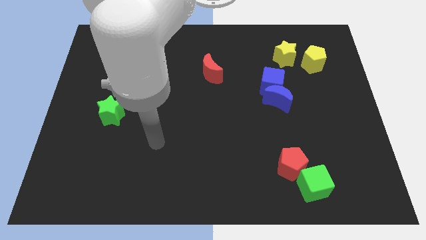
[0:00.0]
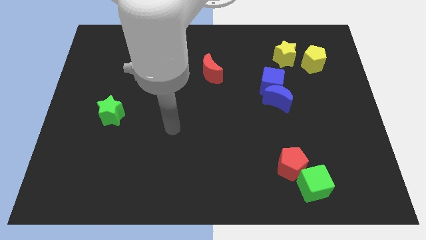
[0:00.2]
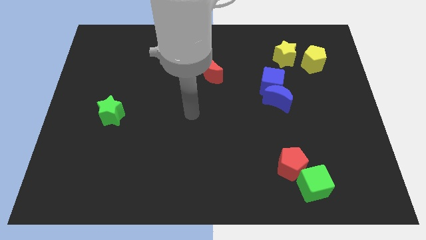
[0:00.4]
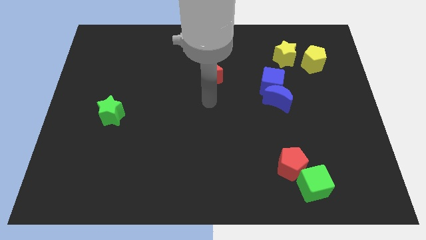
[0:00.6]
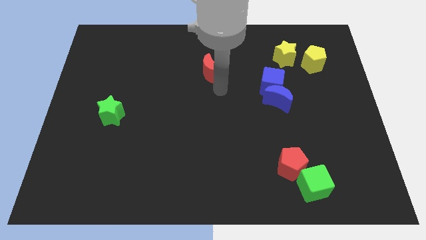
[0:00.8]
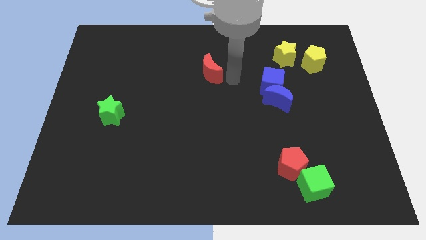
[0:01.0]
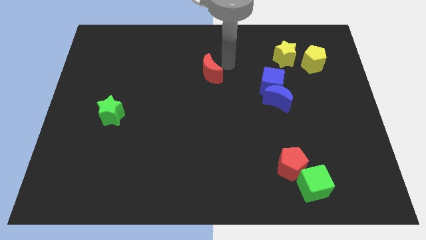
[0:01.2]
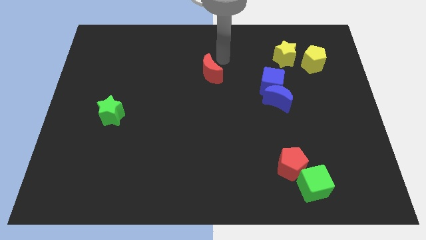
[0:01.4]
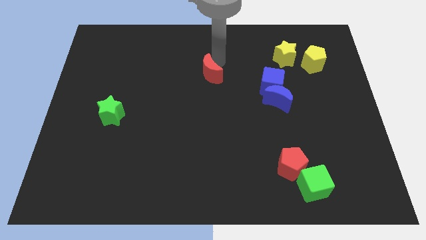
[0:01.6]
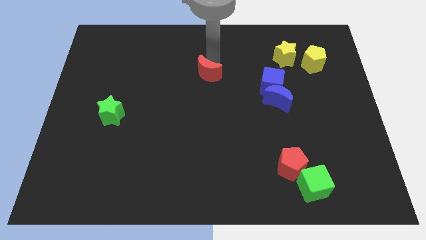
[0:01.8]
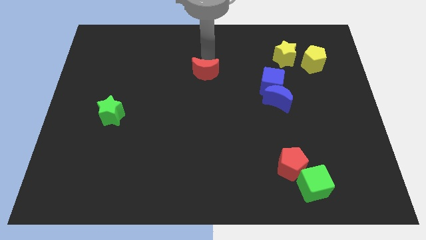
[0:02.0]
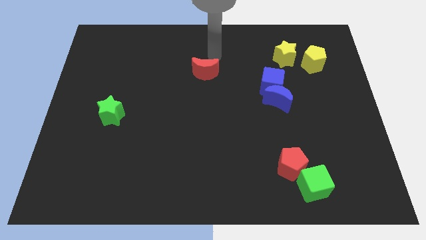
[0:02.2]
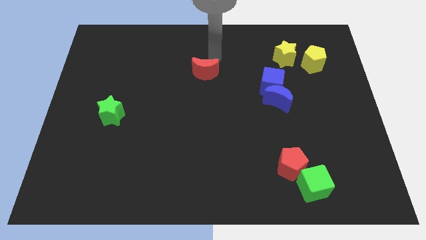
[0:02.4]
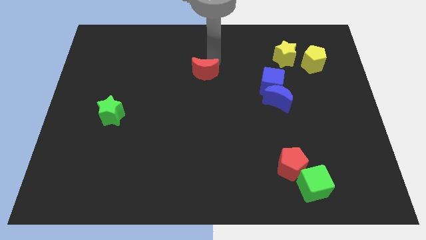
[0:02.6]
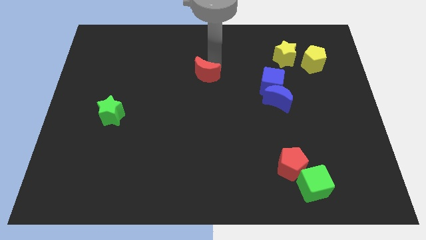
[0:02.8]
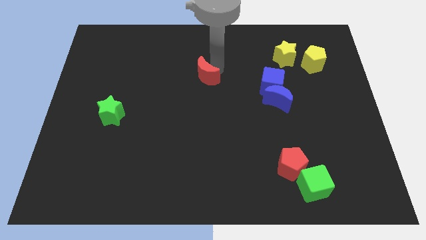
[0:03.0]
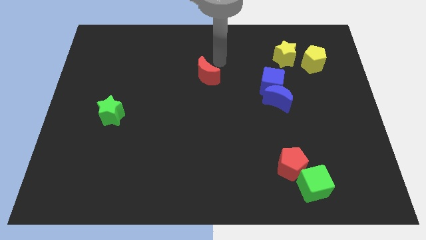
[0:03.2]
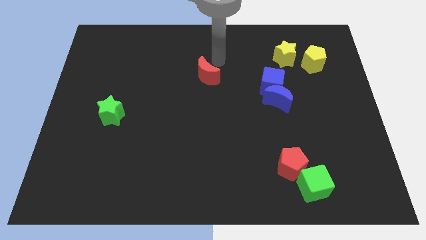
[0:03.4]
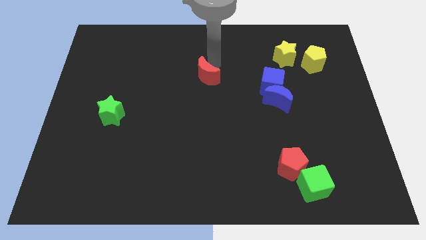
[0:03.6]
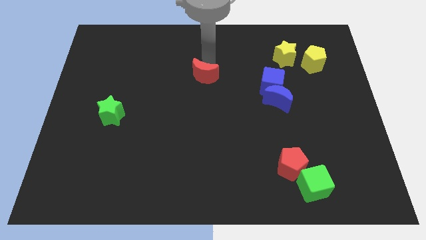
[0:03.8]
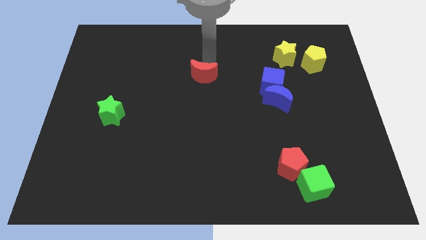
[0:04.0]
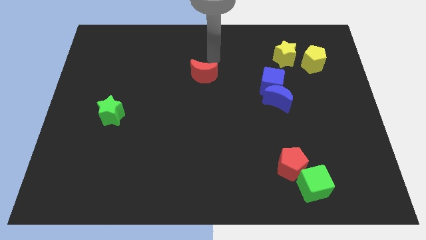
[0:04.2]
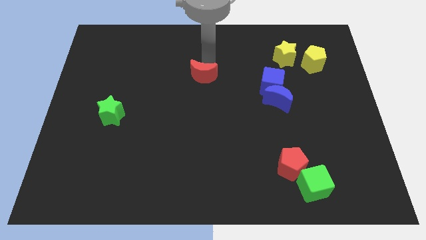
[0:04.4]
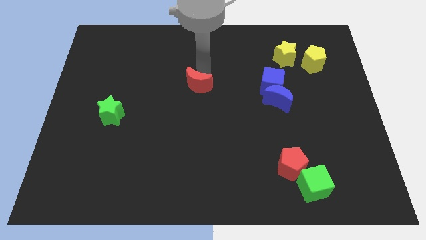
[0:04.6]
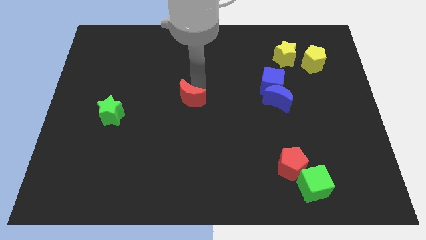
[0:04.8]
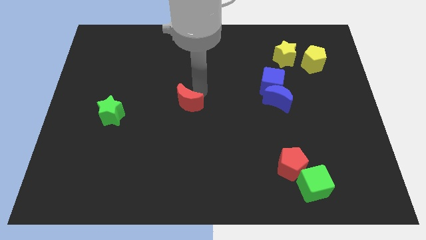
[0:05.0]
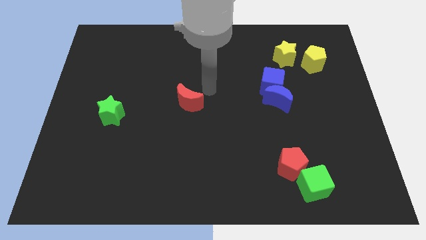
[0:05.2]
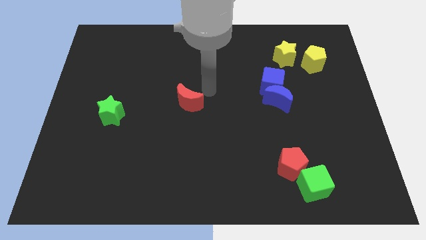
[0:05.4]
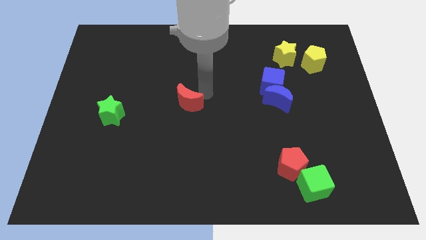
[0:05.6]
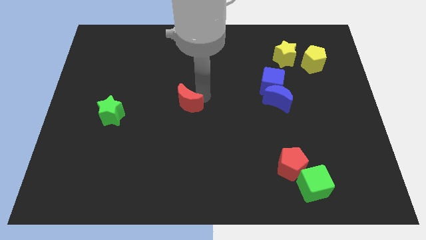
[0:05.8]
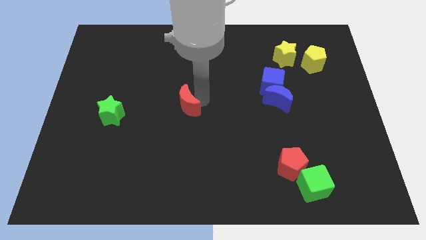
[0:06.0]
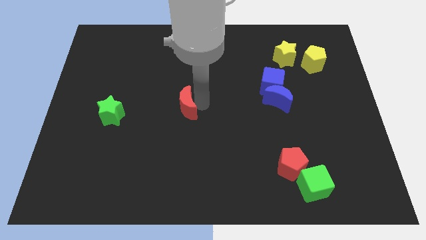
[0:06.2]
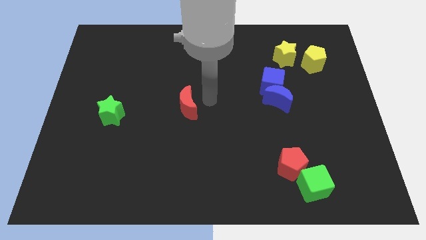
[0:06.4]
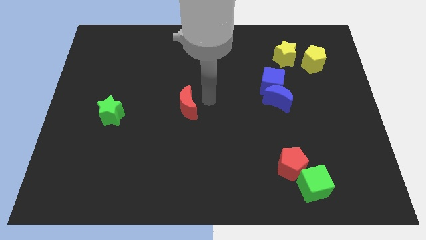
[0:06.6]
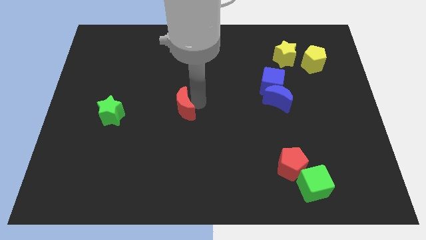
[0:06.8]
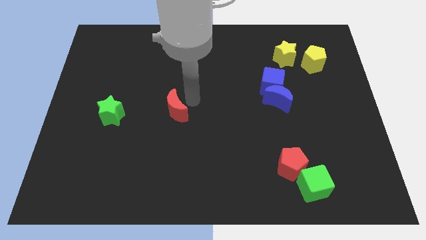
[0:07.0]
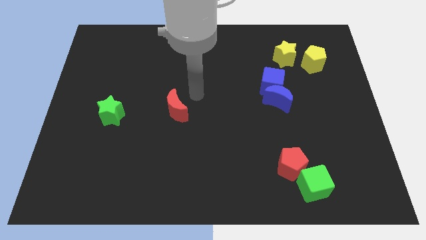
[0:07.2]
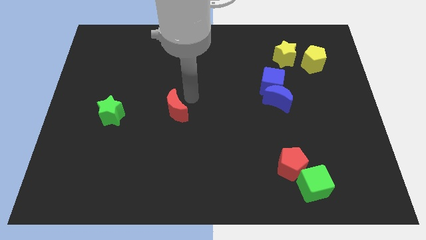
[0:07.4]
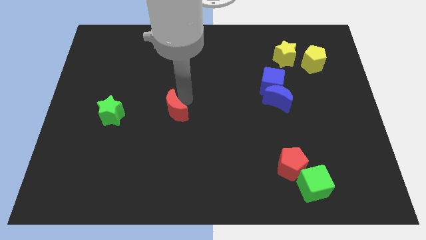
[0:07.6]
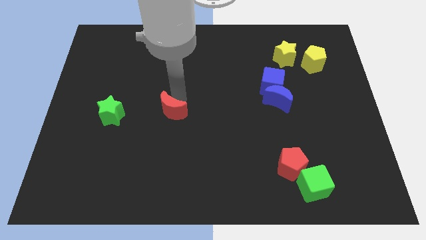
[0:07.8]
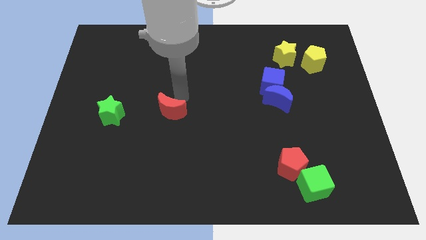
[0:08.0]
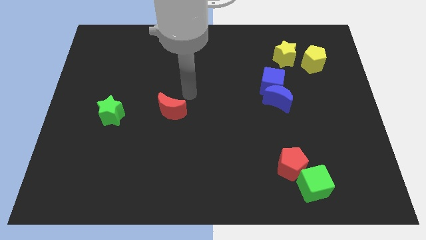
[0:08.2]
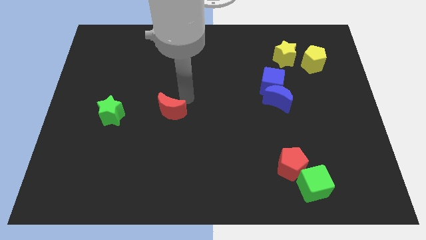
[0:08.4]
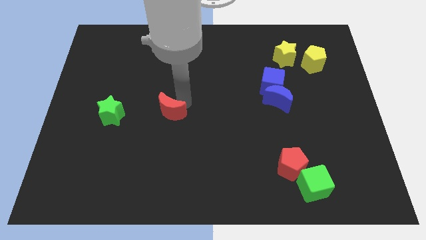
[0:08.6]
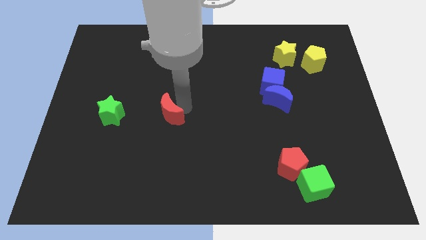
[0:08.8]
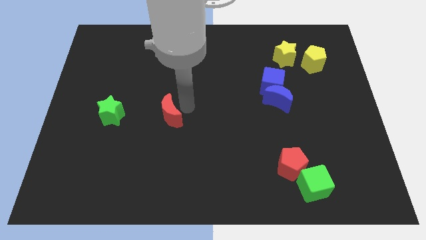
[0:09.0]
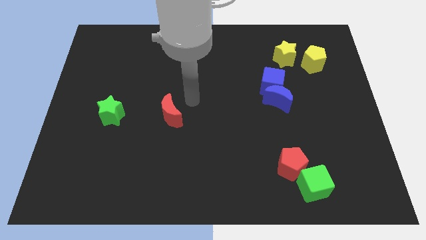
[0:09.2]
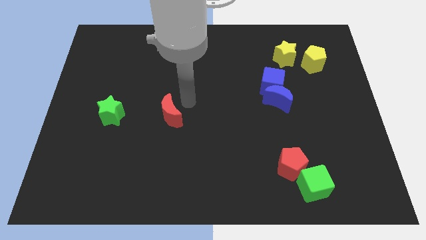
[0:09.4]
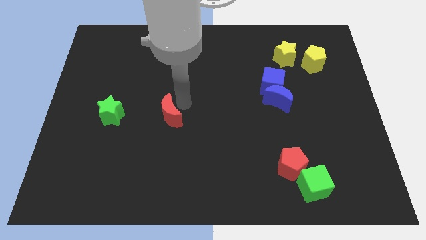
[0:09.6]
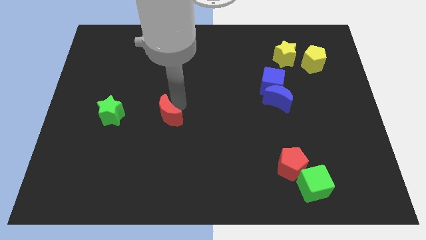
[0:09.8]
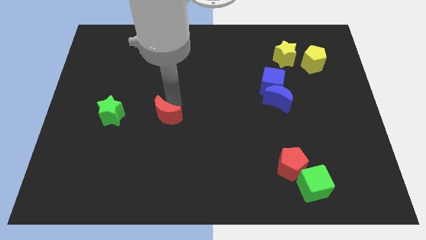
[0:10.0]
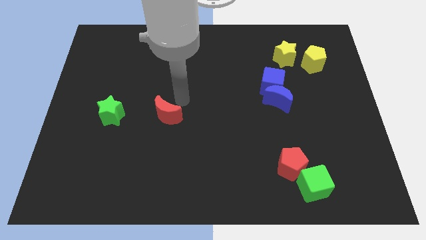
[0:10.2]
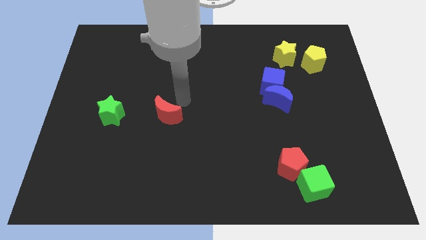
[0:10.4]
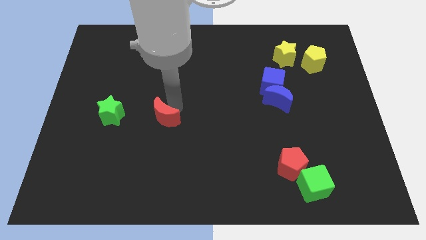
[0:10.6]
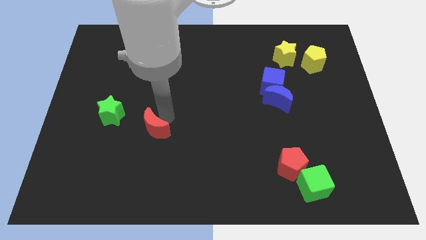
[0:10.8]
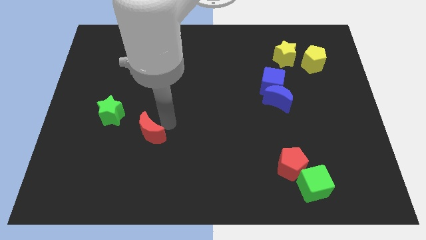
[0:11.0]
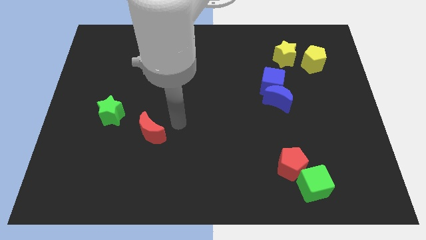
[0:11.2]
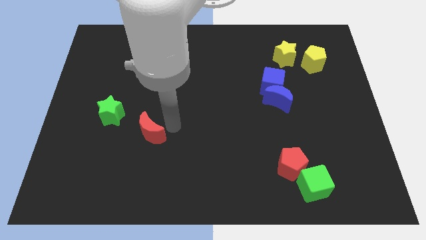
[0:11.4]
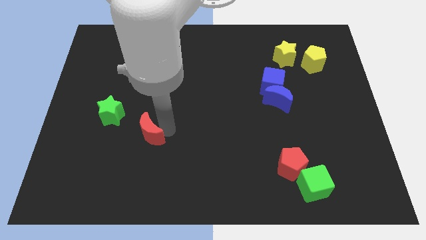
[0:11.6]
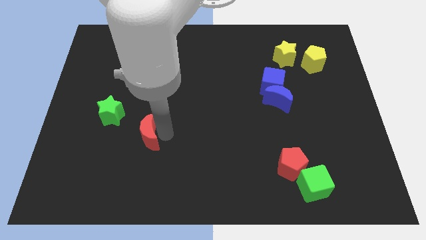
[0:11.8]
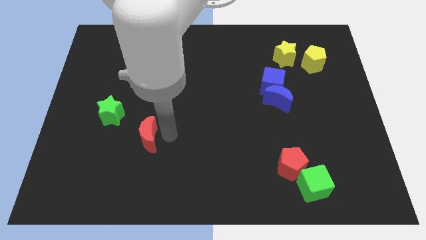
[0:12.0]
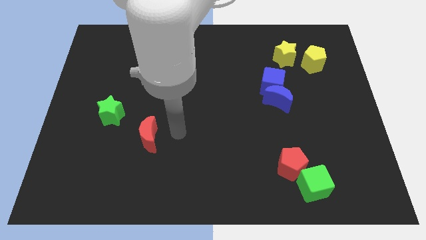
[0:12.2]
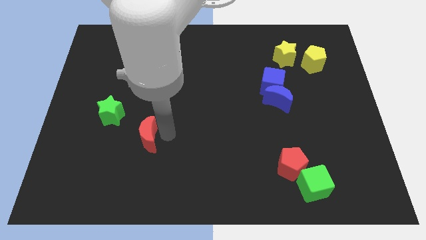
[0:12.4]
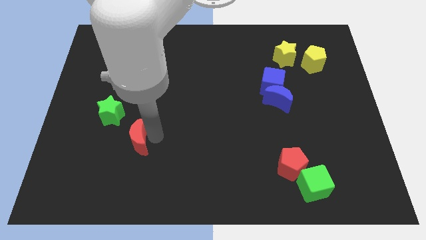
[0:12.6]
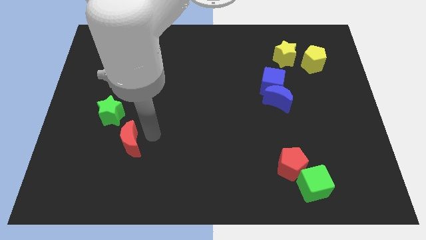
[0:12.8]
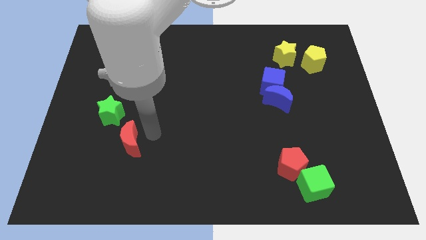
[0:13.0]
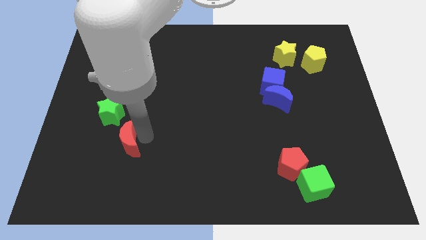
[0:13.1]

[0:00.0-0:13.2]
slide the red moon to the bottom of the green star

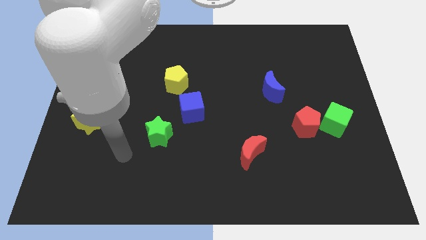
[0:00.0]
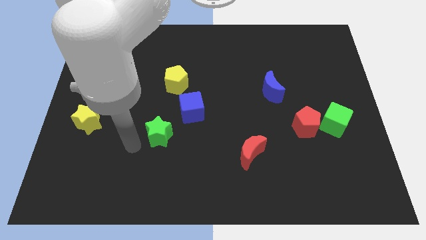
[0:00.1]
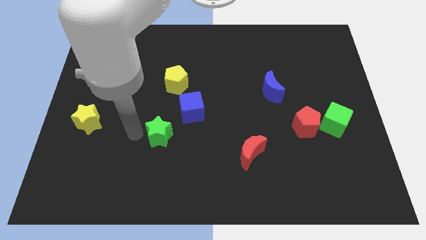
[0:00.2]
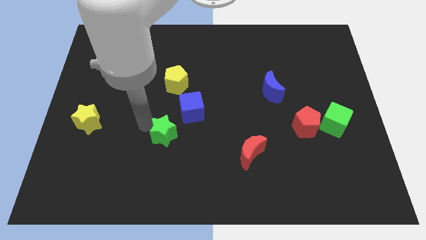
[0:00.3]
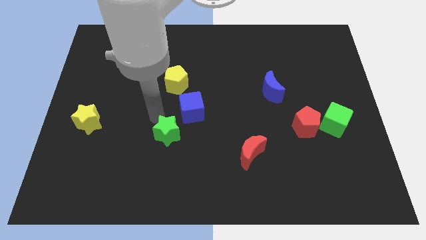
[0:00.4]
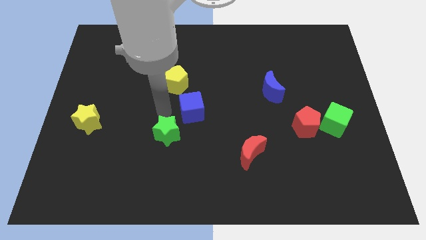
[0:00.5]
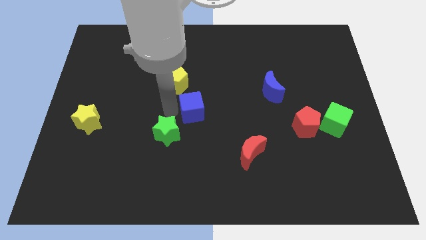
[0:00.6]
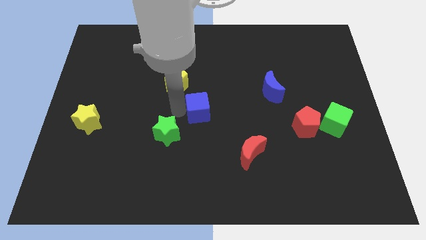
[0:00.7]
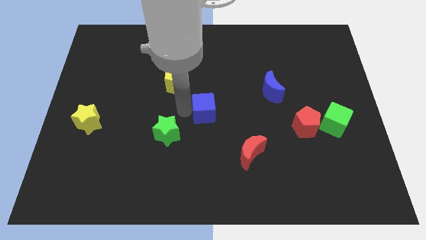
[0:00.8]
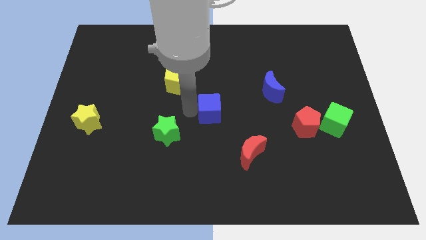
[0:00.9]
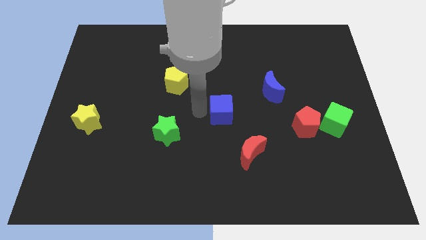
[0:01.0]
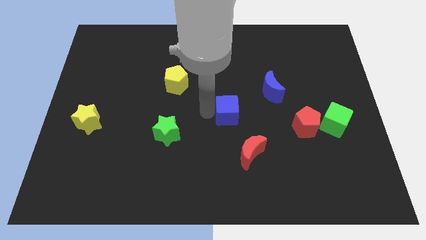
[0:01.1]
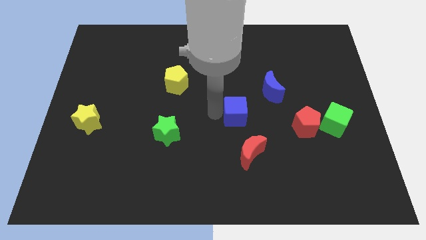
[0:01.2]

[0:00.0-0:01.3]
put the blue cube to the bottom left of the blue moon
